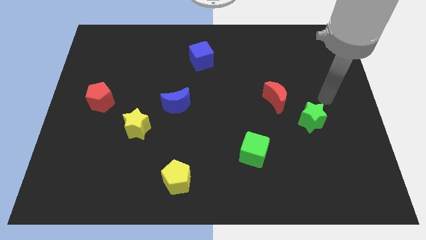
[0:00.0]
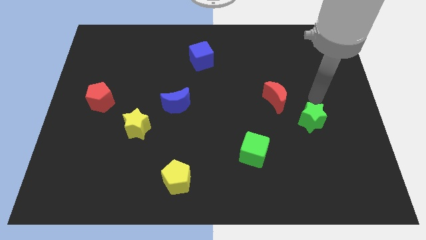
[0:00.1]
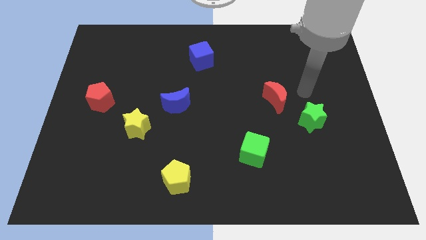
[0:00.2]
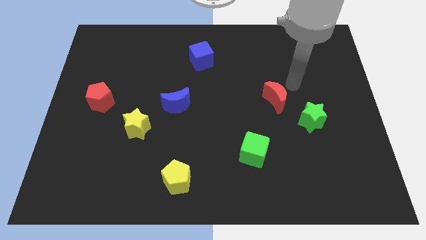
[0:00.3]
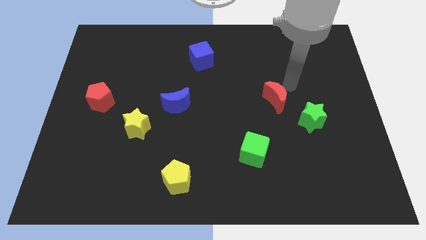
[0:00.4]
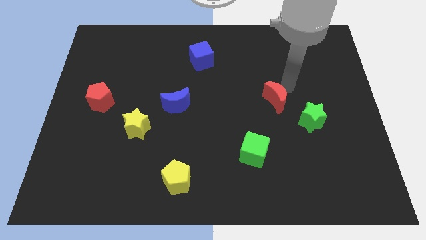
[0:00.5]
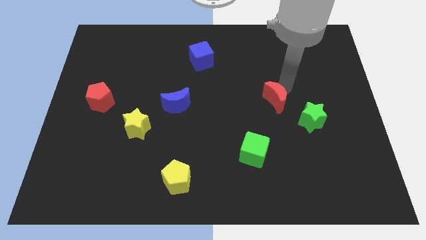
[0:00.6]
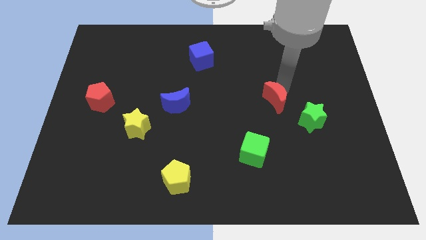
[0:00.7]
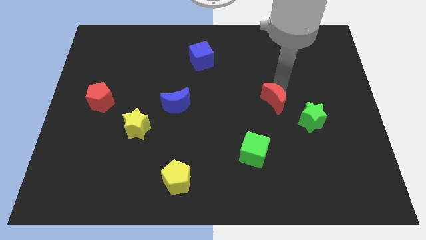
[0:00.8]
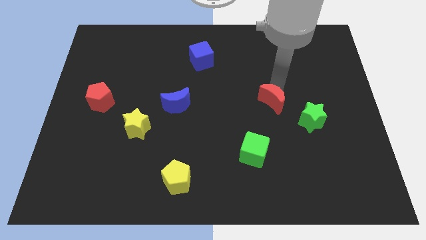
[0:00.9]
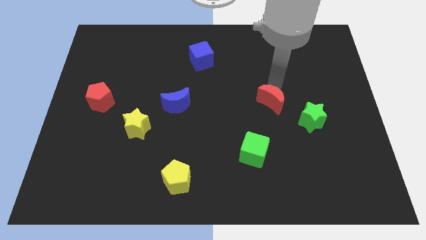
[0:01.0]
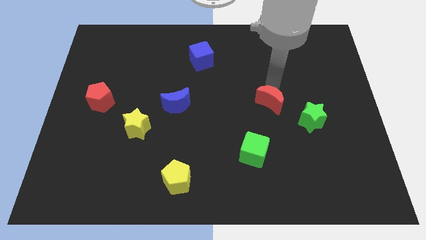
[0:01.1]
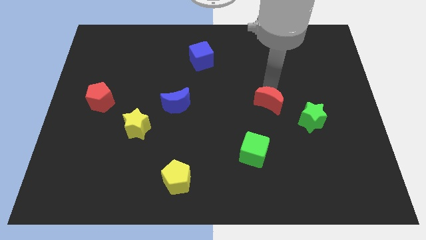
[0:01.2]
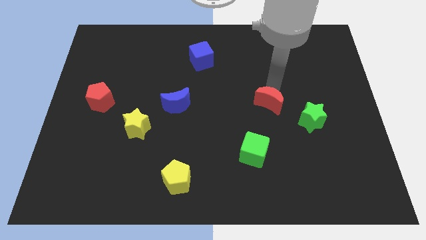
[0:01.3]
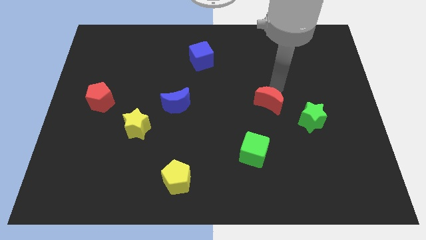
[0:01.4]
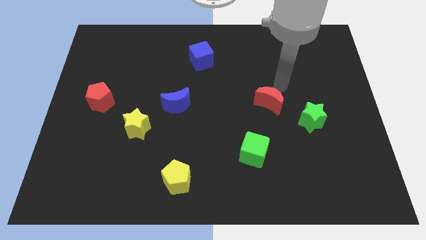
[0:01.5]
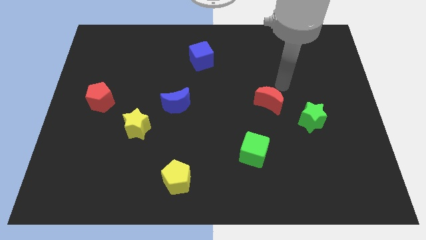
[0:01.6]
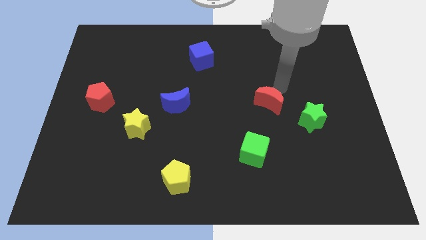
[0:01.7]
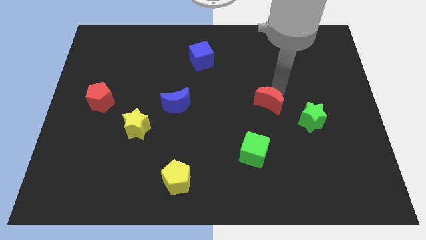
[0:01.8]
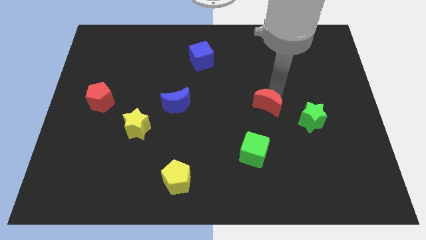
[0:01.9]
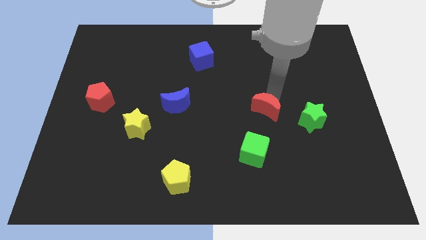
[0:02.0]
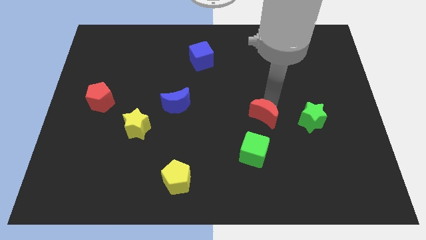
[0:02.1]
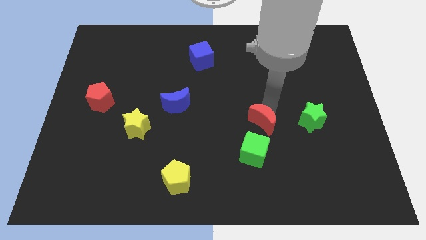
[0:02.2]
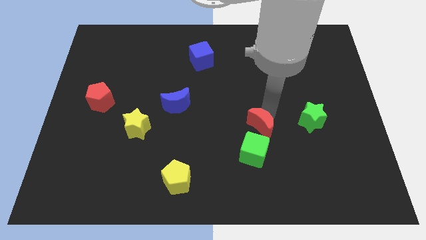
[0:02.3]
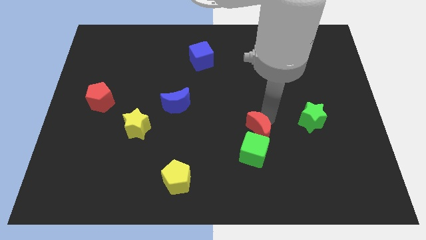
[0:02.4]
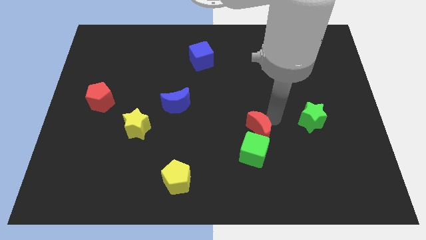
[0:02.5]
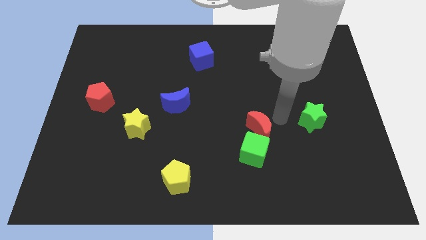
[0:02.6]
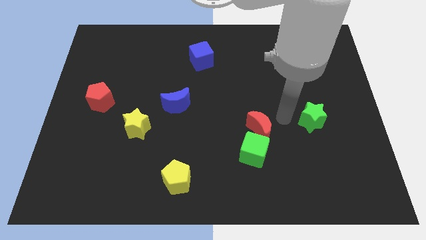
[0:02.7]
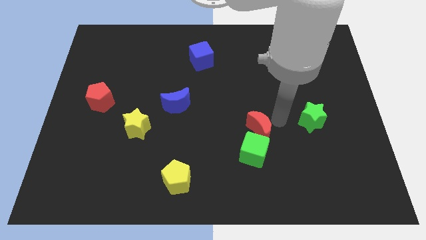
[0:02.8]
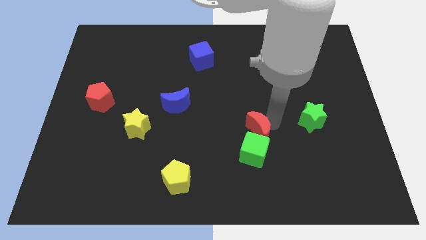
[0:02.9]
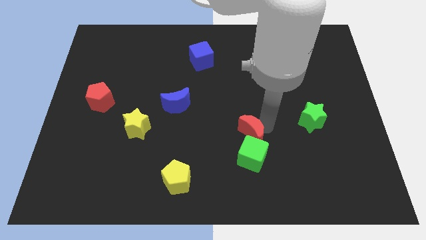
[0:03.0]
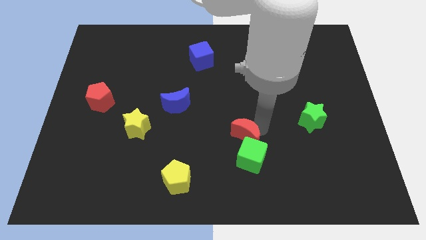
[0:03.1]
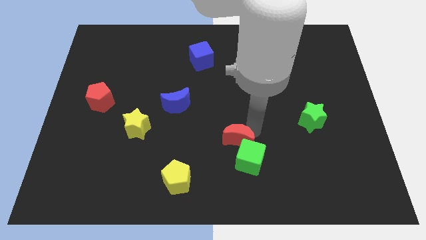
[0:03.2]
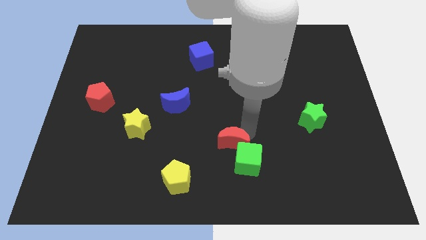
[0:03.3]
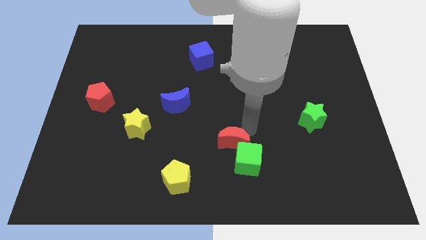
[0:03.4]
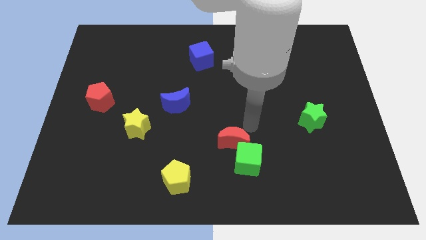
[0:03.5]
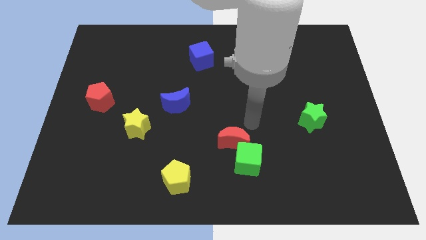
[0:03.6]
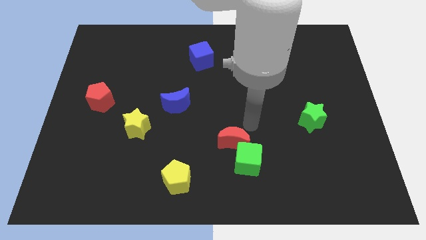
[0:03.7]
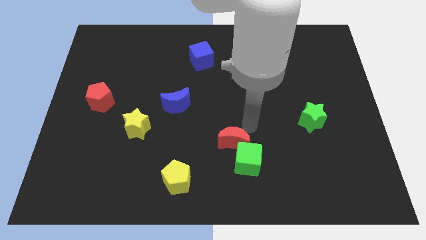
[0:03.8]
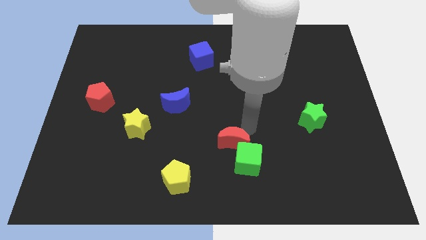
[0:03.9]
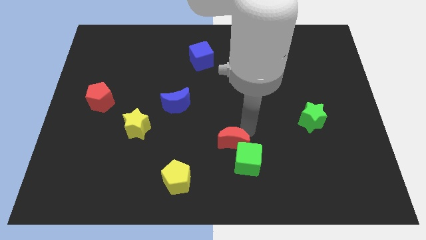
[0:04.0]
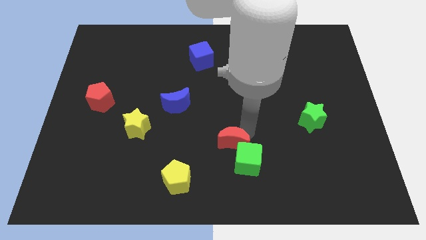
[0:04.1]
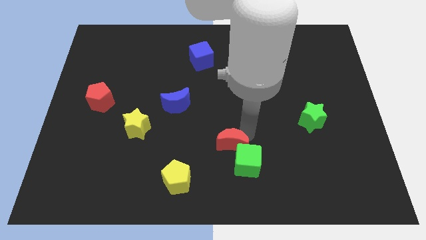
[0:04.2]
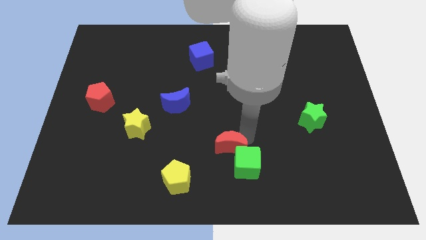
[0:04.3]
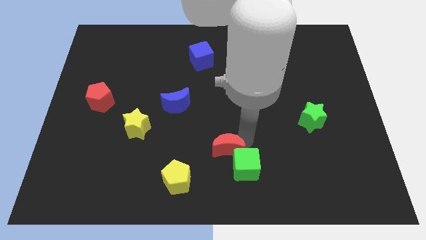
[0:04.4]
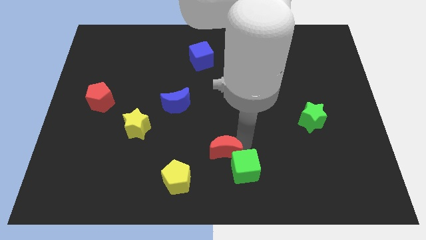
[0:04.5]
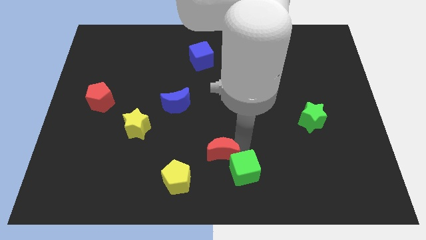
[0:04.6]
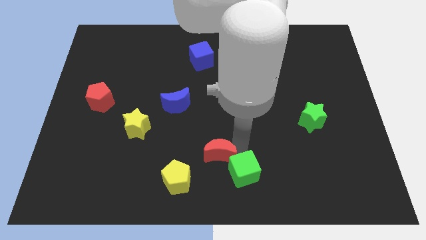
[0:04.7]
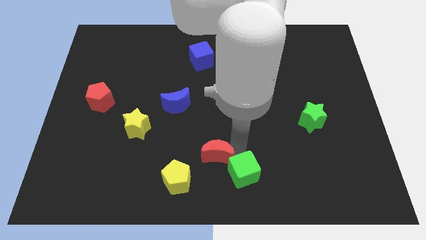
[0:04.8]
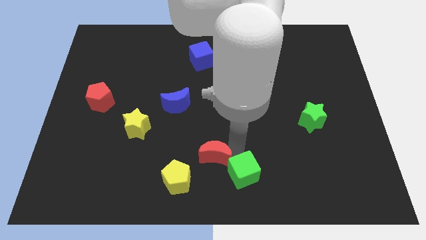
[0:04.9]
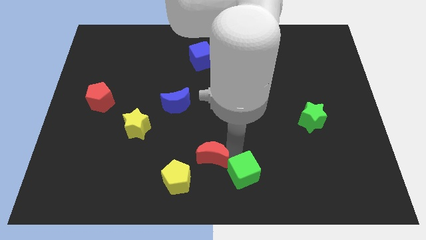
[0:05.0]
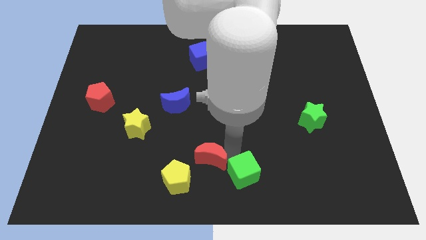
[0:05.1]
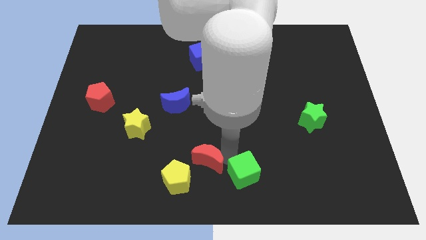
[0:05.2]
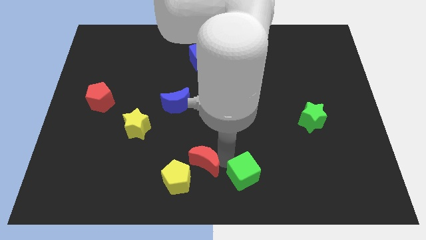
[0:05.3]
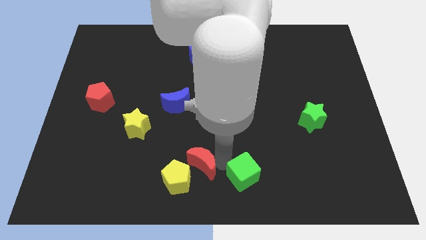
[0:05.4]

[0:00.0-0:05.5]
slide the red moon close to the yellow pentagon

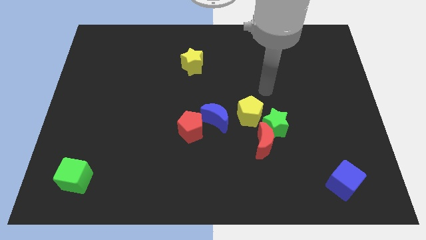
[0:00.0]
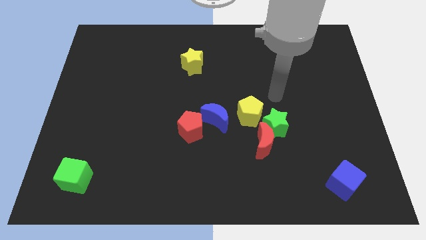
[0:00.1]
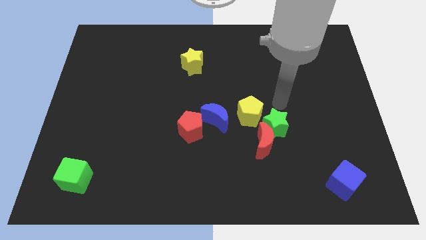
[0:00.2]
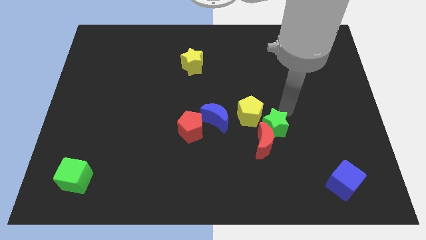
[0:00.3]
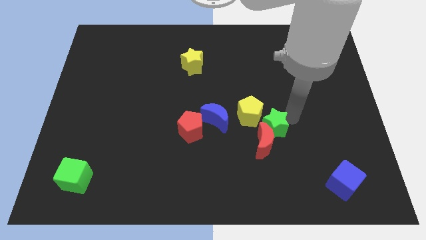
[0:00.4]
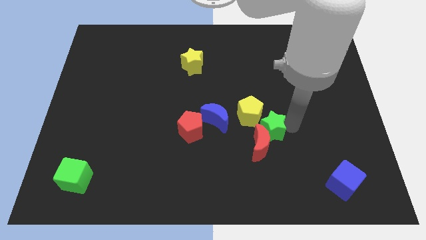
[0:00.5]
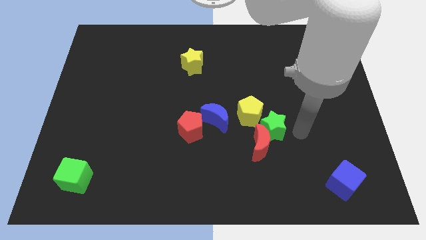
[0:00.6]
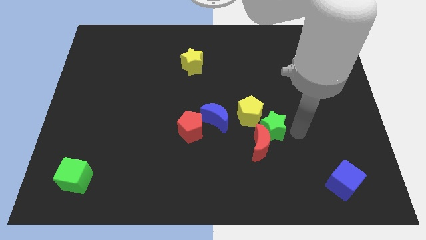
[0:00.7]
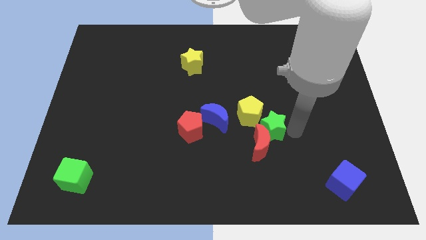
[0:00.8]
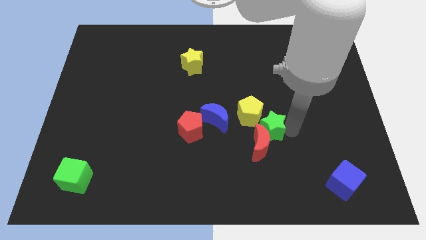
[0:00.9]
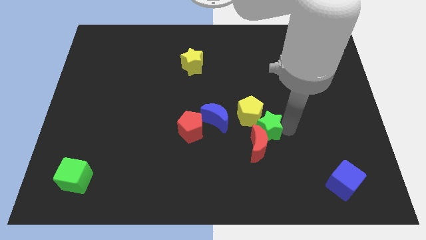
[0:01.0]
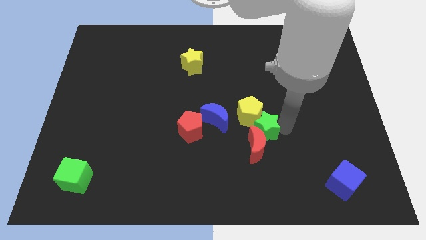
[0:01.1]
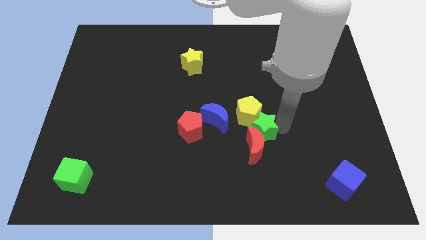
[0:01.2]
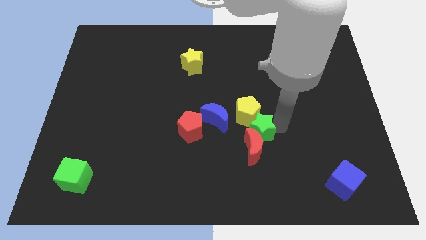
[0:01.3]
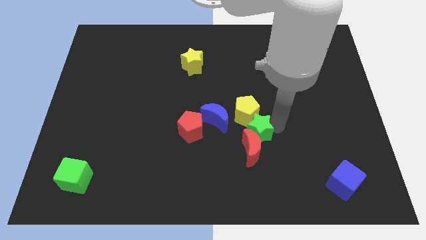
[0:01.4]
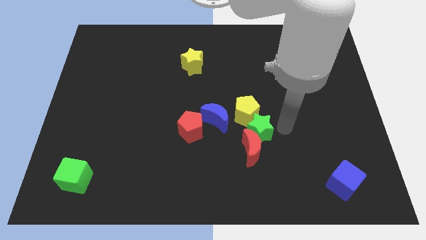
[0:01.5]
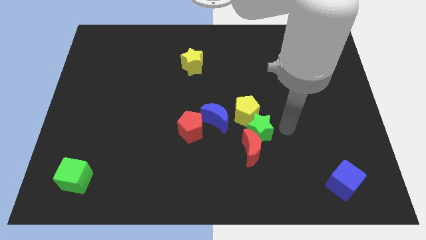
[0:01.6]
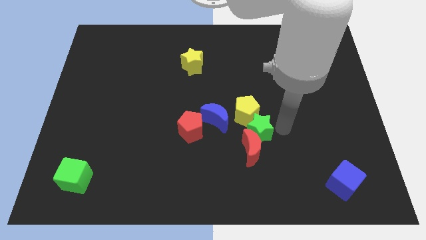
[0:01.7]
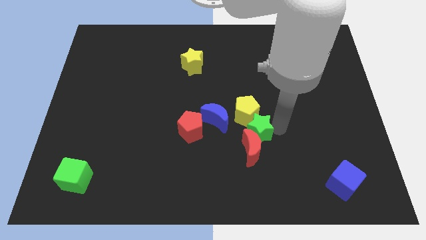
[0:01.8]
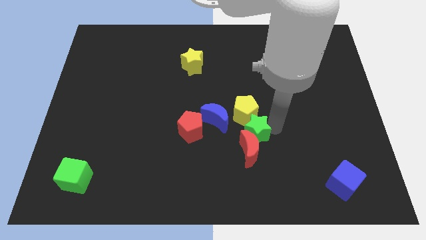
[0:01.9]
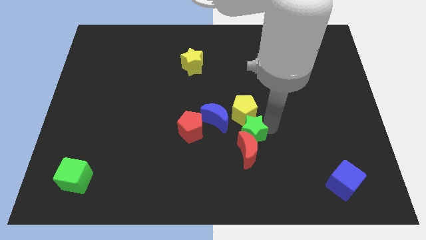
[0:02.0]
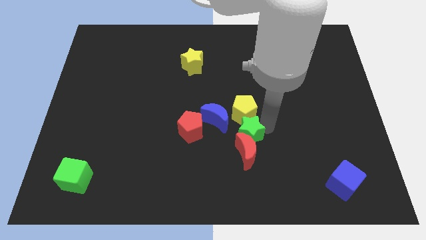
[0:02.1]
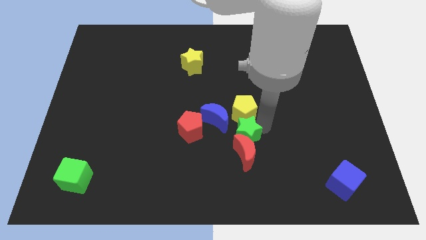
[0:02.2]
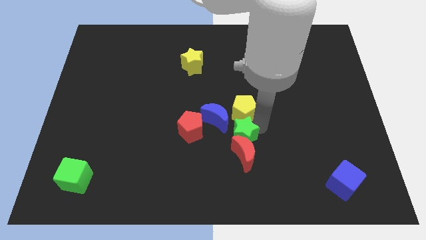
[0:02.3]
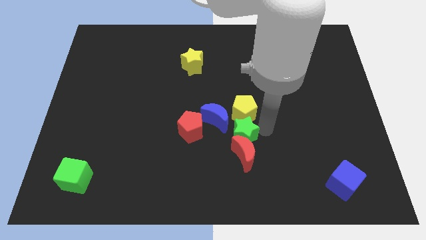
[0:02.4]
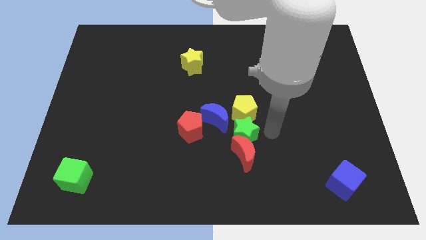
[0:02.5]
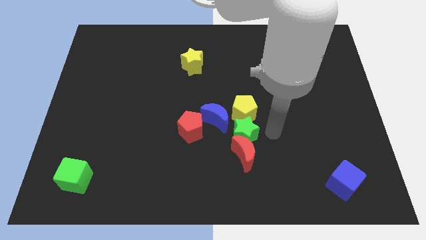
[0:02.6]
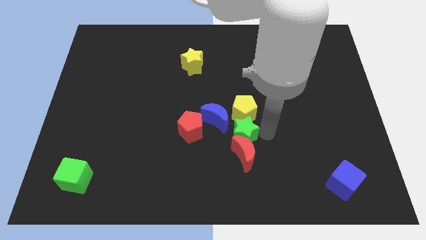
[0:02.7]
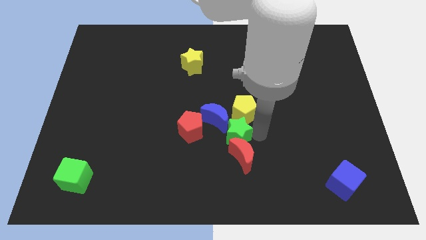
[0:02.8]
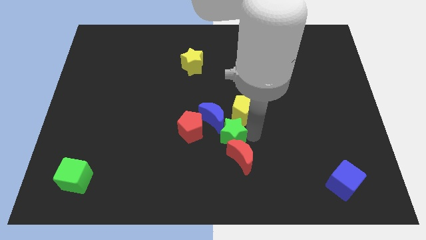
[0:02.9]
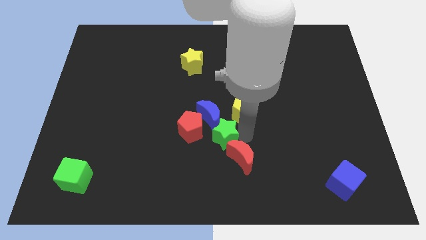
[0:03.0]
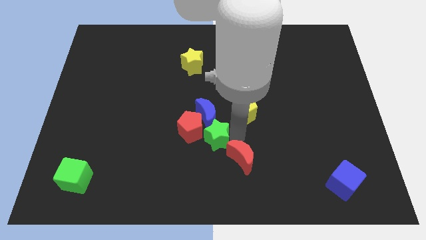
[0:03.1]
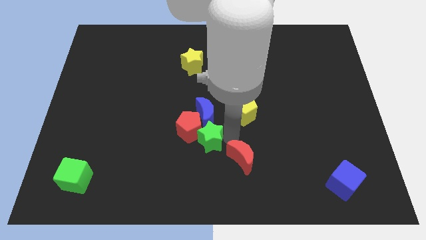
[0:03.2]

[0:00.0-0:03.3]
move the green star towards the red pentagon
